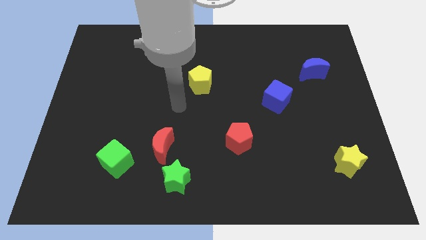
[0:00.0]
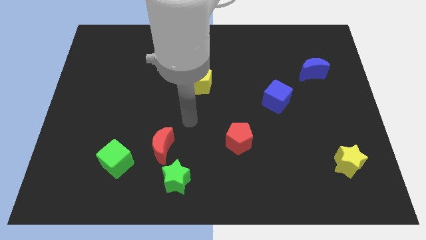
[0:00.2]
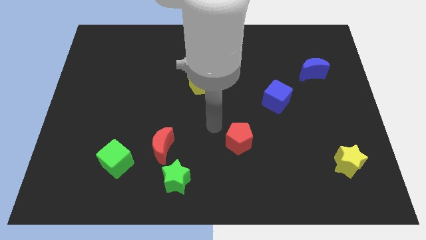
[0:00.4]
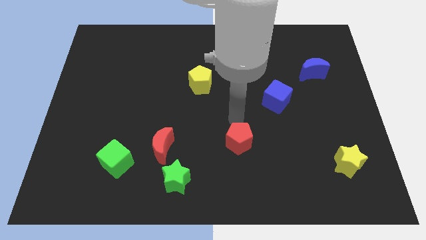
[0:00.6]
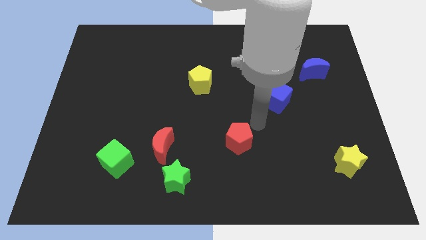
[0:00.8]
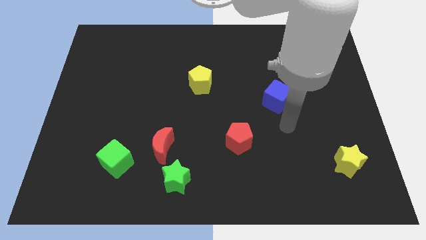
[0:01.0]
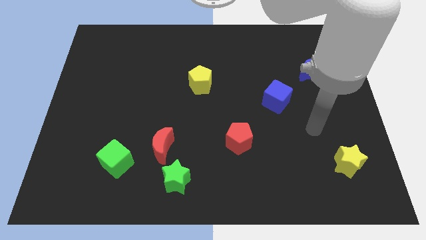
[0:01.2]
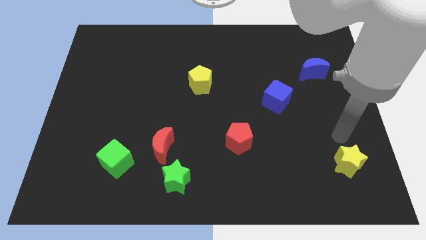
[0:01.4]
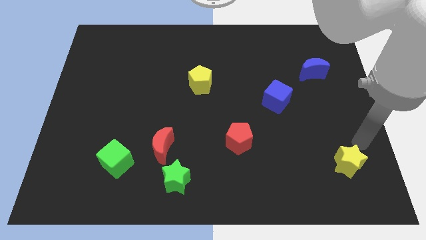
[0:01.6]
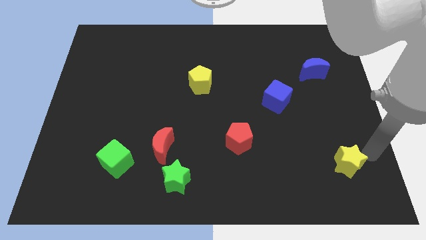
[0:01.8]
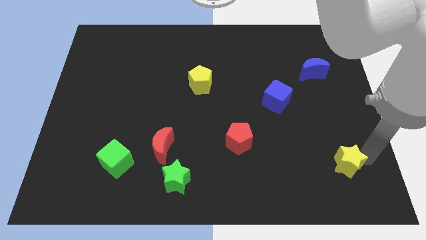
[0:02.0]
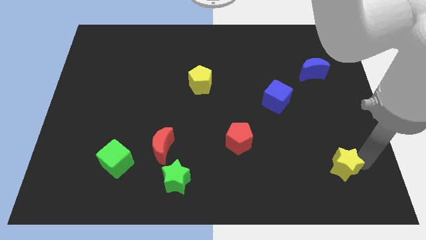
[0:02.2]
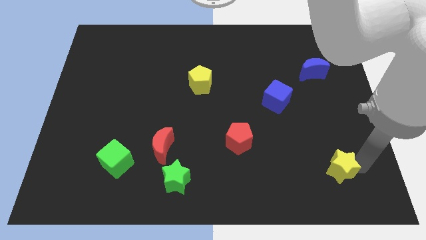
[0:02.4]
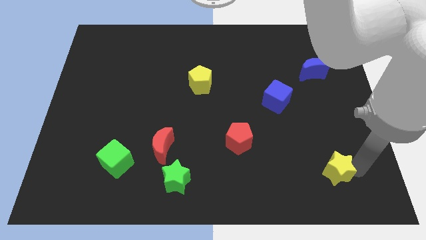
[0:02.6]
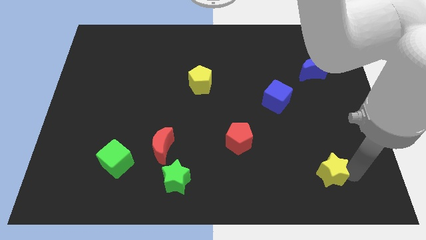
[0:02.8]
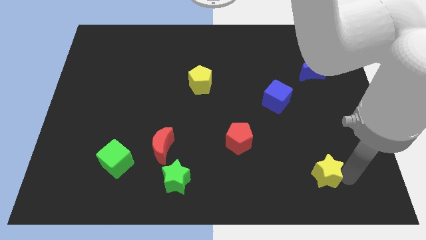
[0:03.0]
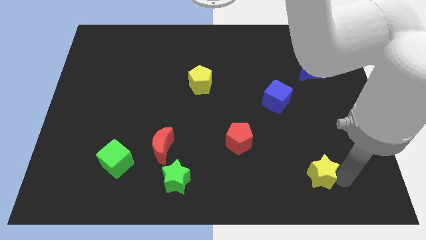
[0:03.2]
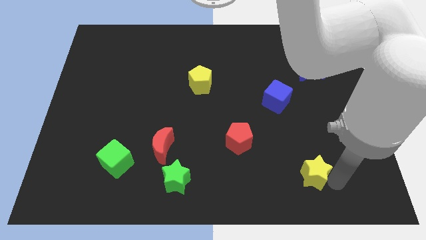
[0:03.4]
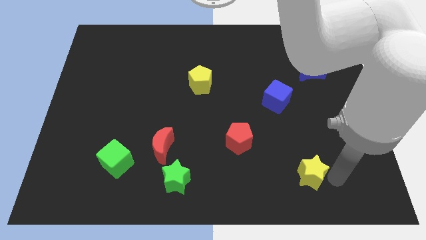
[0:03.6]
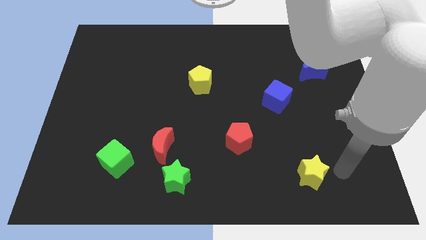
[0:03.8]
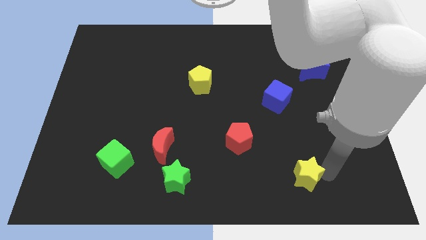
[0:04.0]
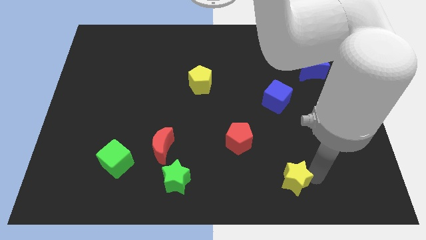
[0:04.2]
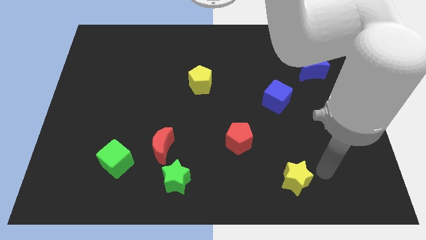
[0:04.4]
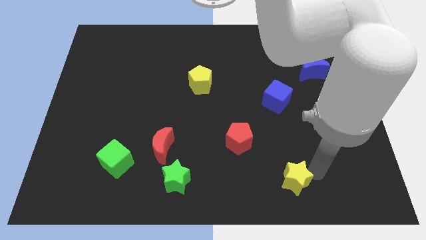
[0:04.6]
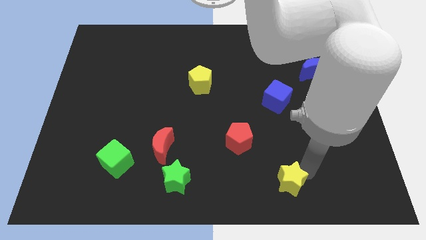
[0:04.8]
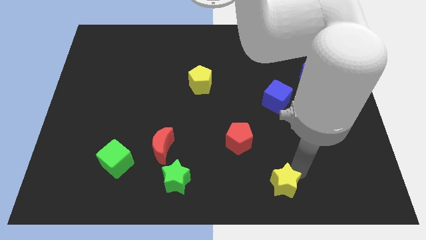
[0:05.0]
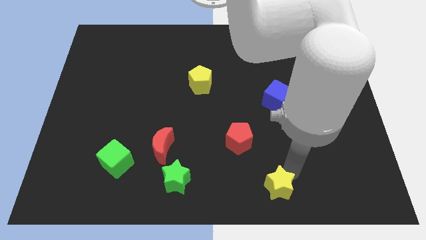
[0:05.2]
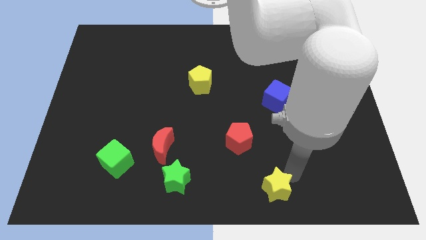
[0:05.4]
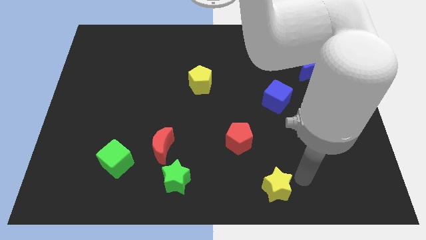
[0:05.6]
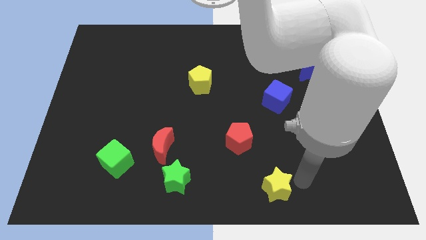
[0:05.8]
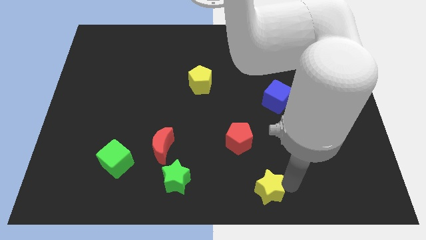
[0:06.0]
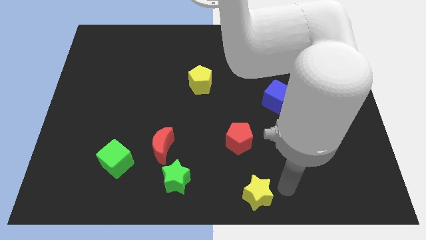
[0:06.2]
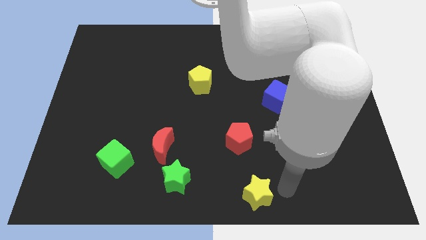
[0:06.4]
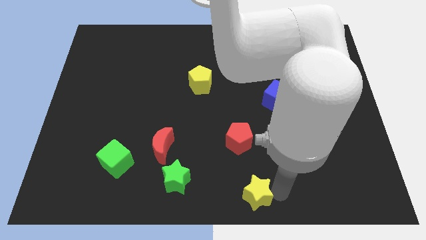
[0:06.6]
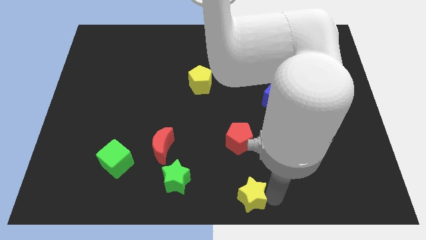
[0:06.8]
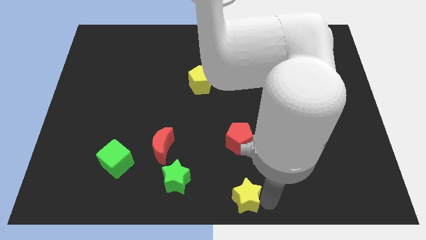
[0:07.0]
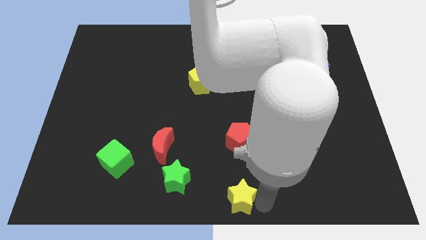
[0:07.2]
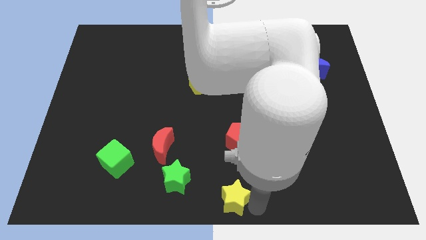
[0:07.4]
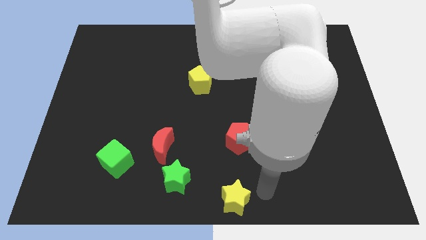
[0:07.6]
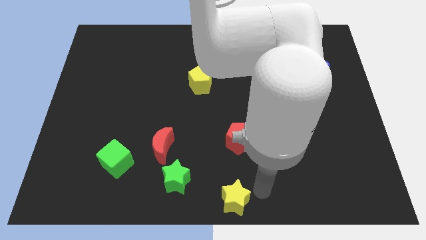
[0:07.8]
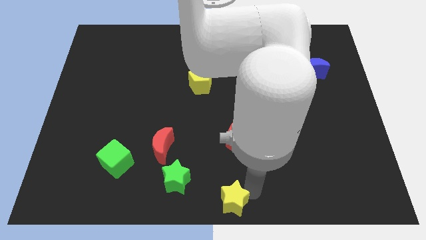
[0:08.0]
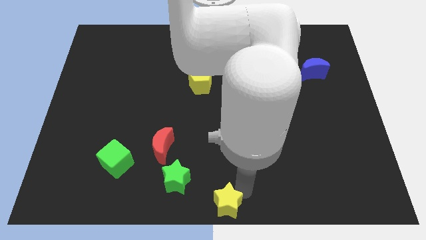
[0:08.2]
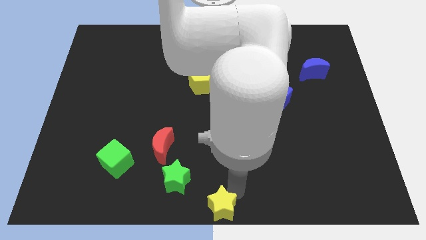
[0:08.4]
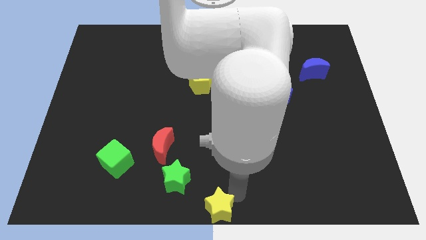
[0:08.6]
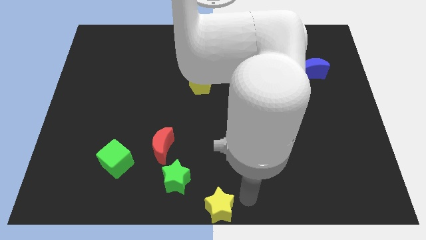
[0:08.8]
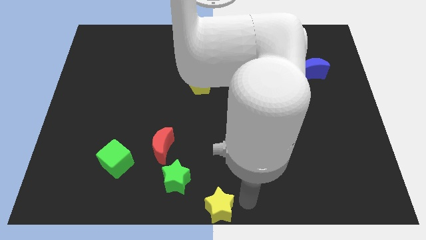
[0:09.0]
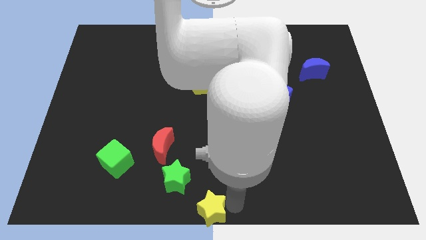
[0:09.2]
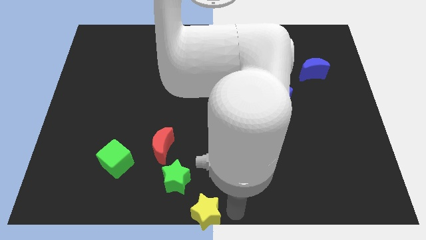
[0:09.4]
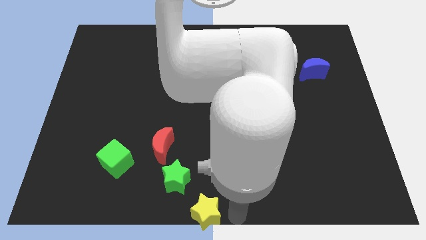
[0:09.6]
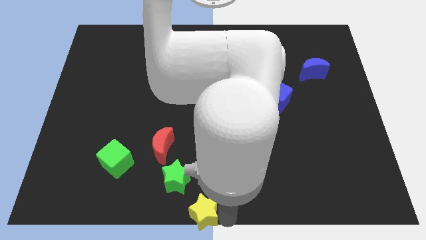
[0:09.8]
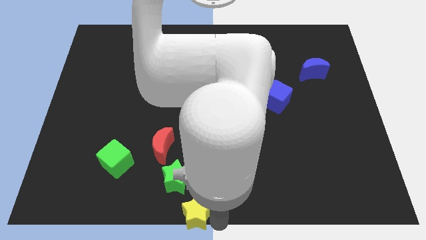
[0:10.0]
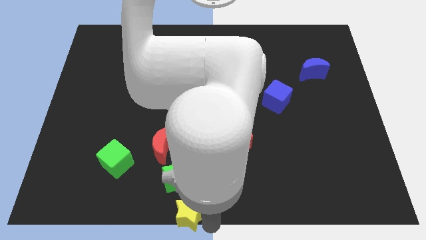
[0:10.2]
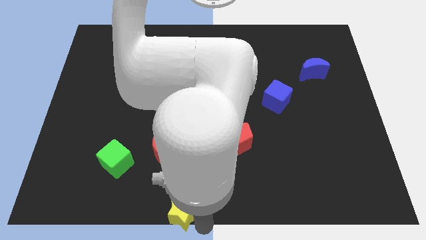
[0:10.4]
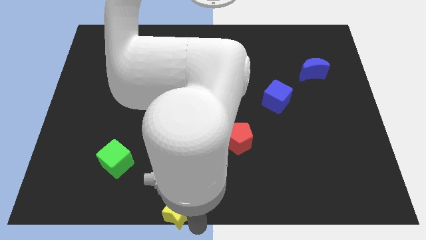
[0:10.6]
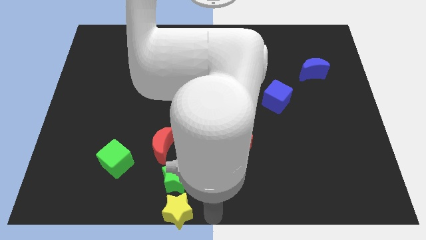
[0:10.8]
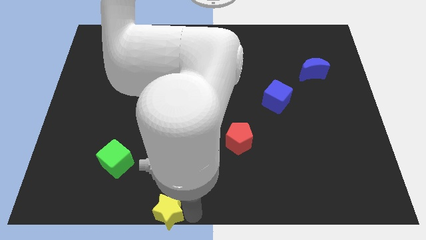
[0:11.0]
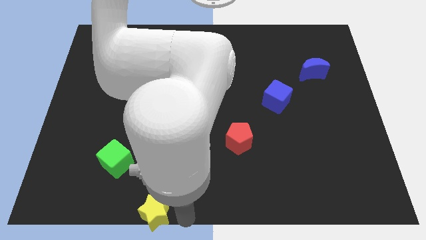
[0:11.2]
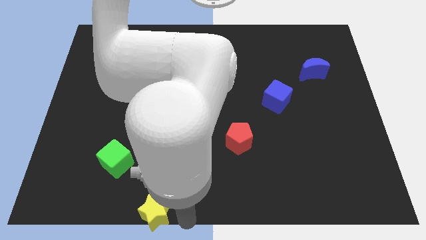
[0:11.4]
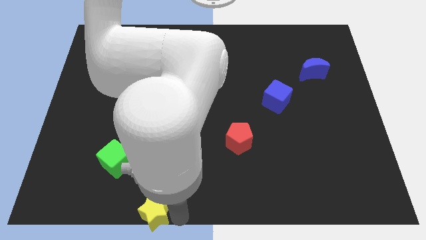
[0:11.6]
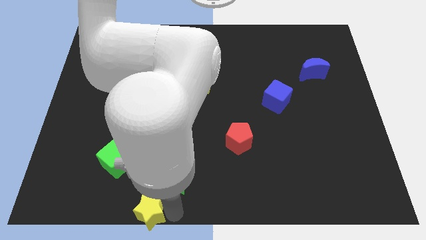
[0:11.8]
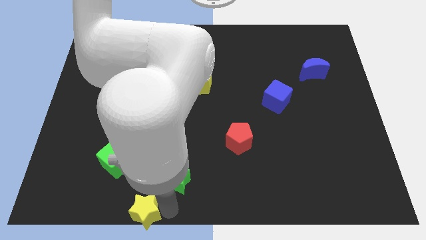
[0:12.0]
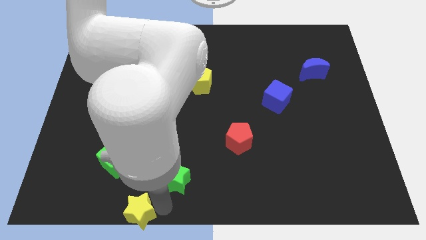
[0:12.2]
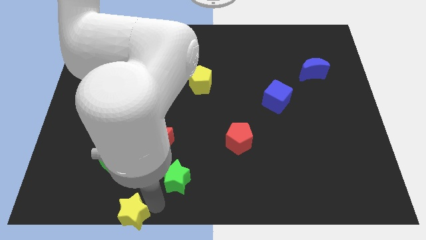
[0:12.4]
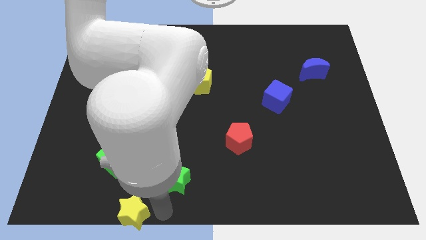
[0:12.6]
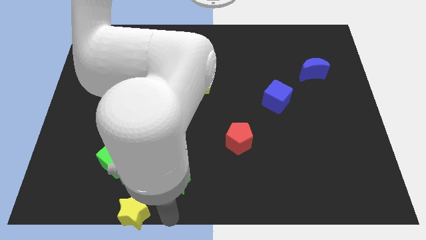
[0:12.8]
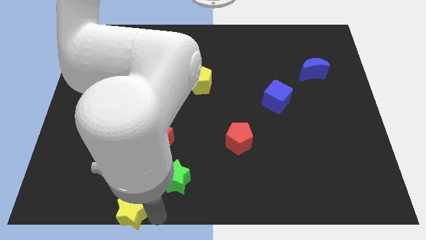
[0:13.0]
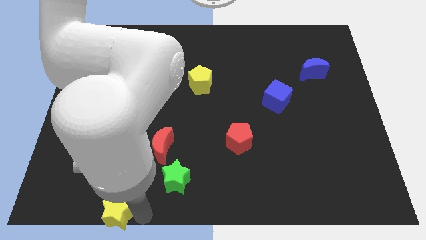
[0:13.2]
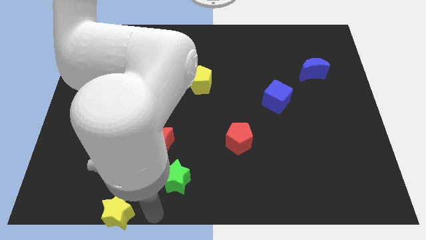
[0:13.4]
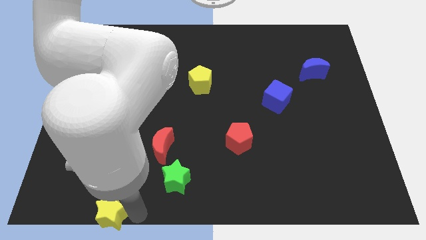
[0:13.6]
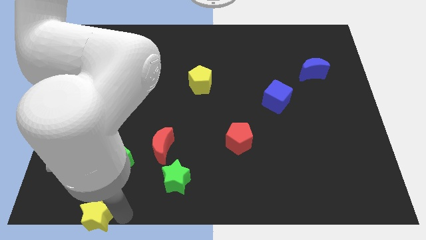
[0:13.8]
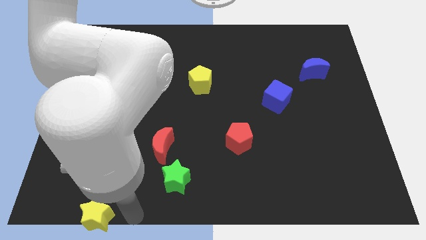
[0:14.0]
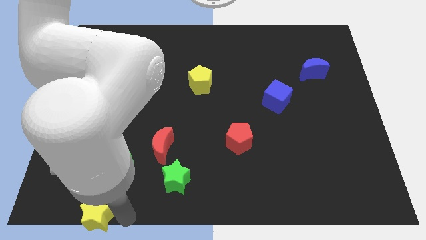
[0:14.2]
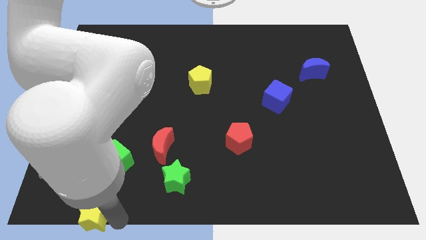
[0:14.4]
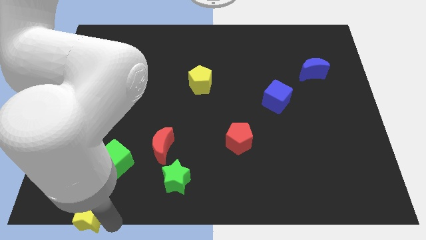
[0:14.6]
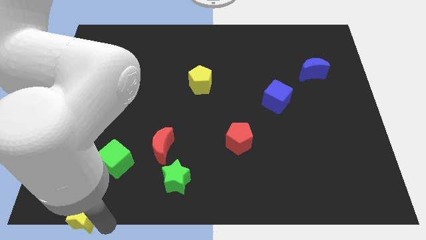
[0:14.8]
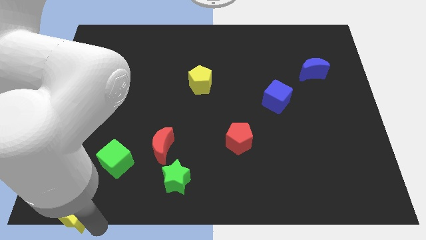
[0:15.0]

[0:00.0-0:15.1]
put the yellow star to the bottom left
